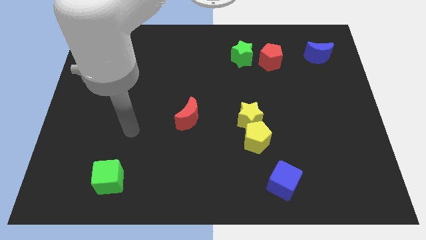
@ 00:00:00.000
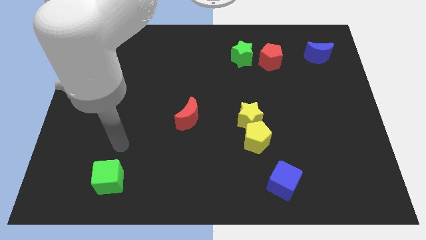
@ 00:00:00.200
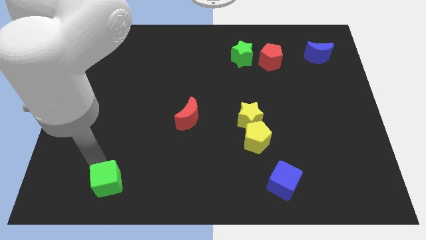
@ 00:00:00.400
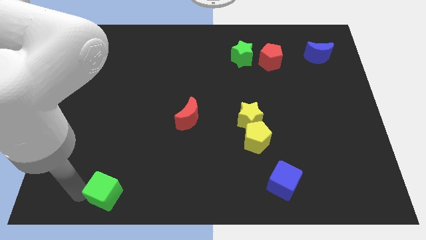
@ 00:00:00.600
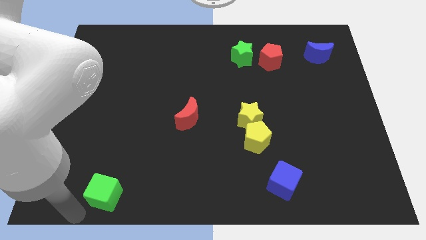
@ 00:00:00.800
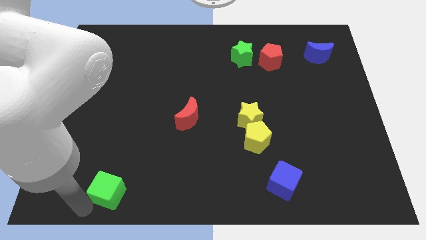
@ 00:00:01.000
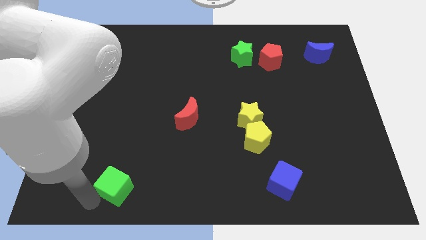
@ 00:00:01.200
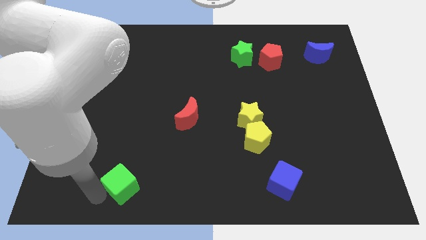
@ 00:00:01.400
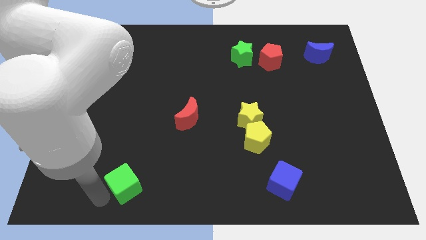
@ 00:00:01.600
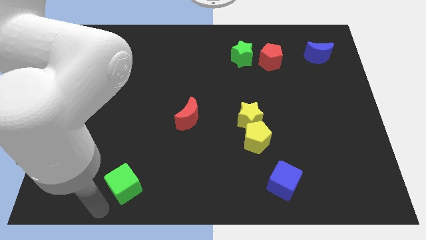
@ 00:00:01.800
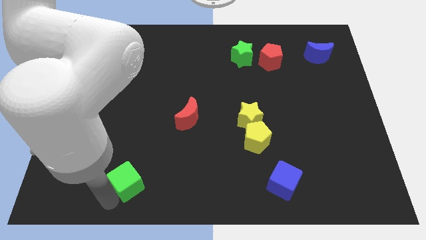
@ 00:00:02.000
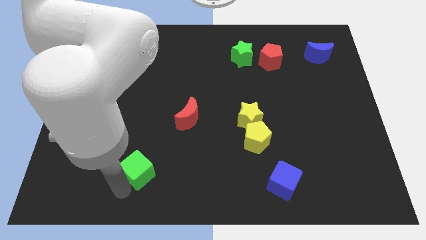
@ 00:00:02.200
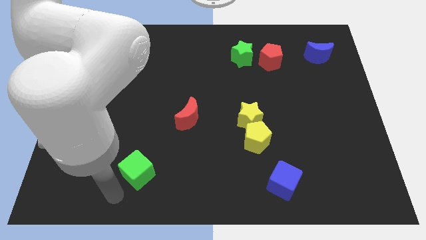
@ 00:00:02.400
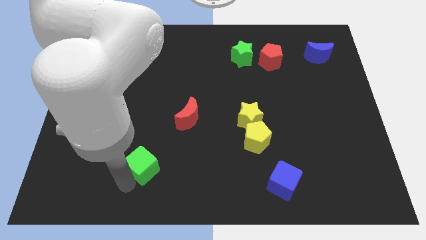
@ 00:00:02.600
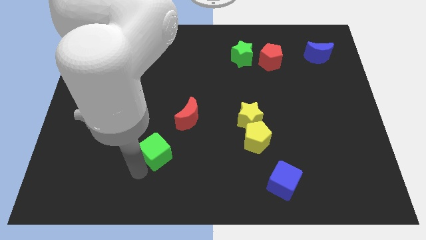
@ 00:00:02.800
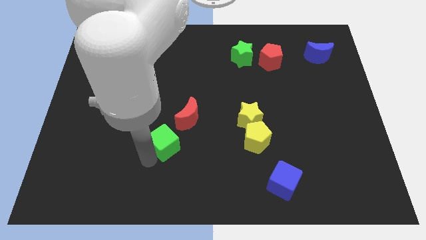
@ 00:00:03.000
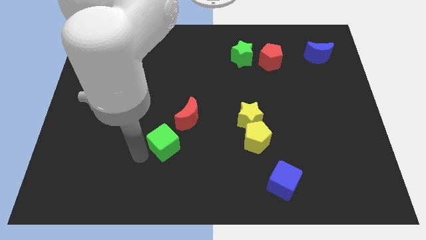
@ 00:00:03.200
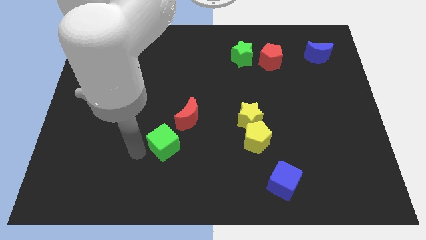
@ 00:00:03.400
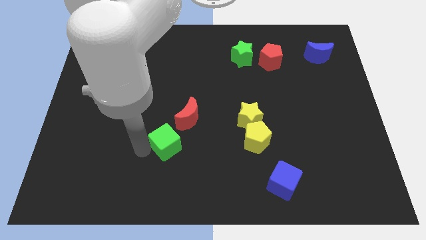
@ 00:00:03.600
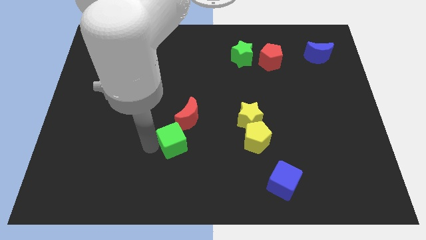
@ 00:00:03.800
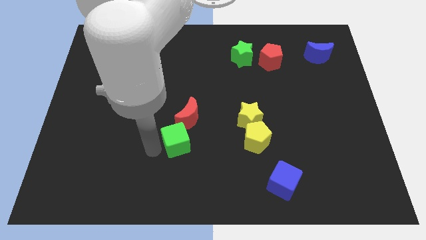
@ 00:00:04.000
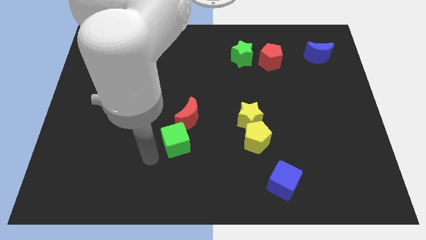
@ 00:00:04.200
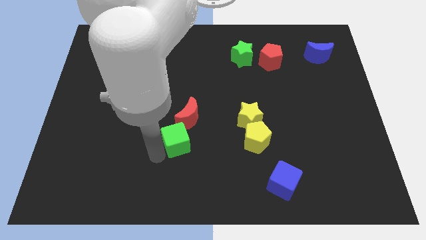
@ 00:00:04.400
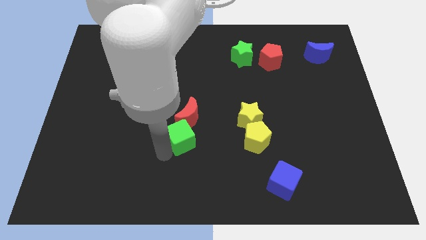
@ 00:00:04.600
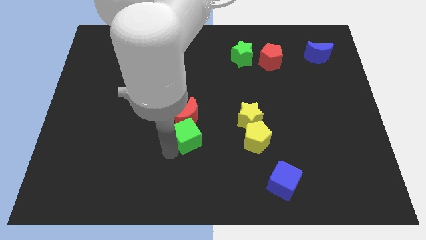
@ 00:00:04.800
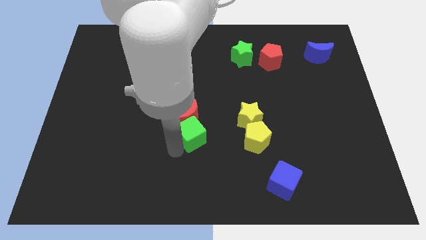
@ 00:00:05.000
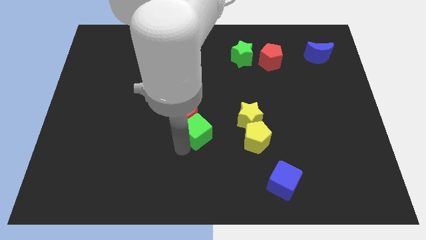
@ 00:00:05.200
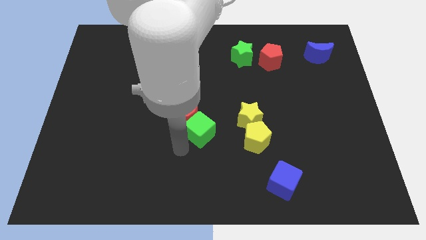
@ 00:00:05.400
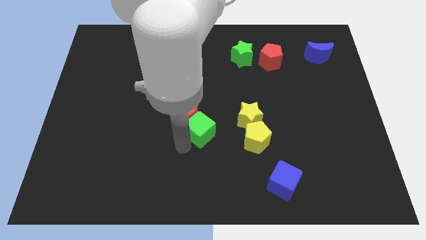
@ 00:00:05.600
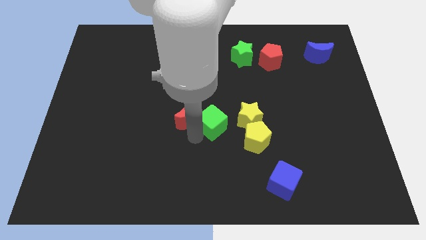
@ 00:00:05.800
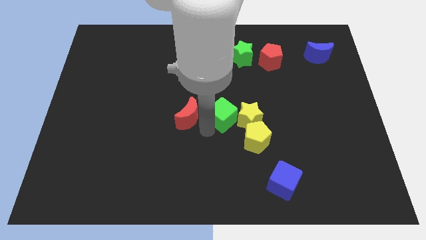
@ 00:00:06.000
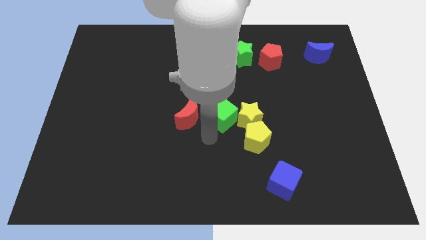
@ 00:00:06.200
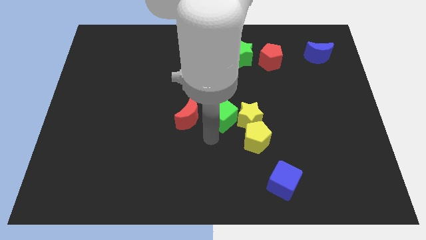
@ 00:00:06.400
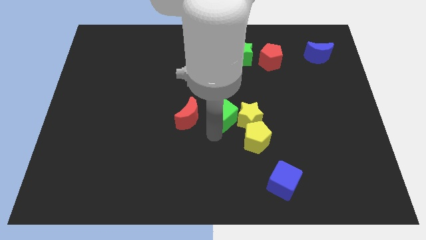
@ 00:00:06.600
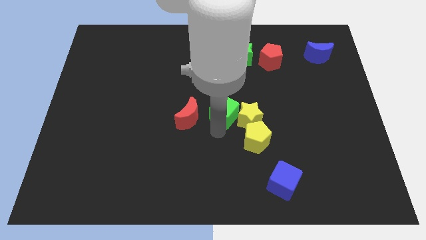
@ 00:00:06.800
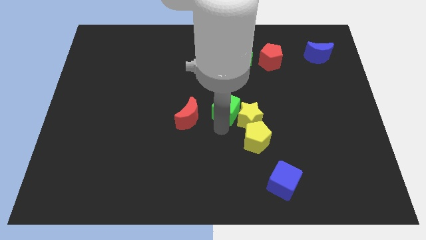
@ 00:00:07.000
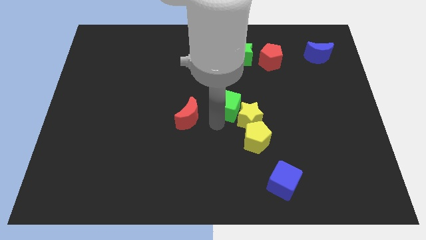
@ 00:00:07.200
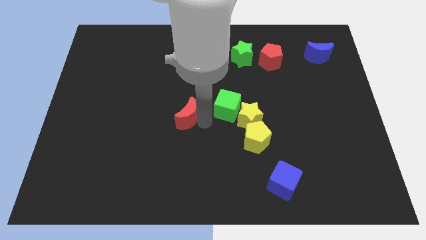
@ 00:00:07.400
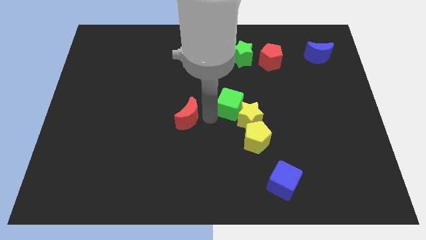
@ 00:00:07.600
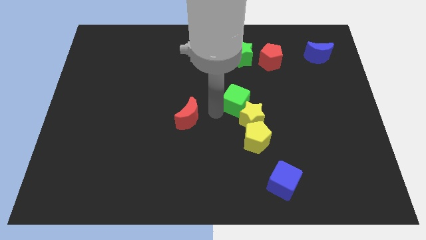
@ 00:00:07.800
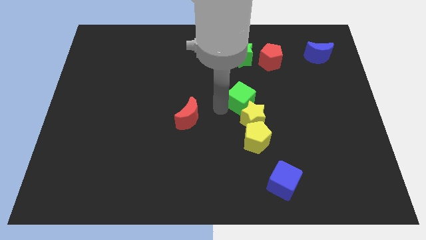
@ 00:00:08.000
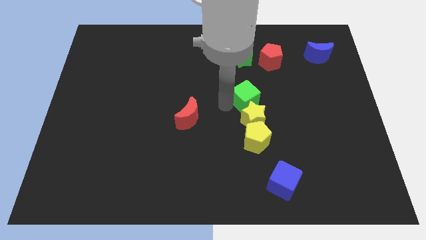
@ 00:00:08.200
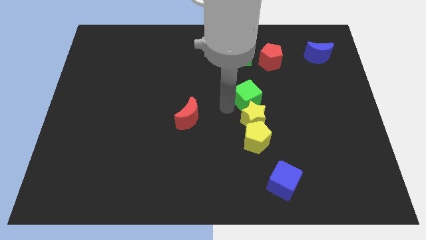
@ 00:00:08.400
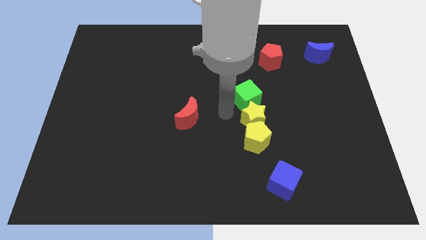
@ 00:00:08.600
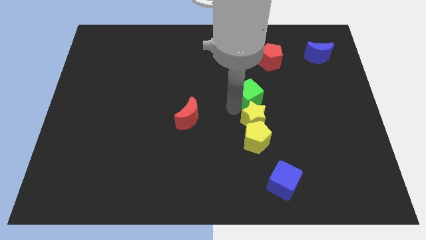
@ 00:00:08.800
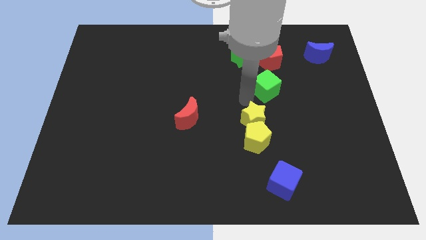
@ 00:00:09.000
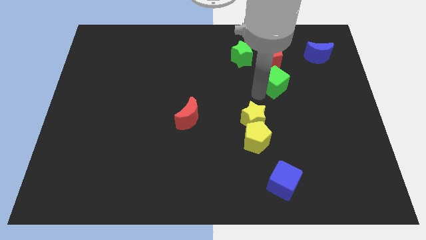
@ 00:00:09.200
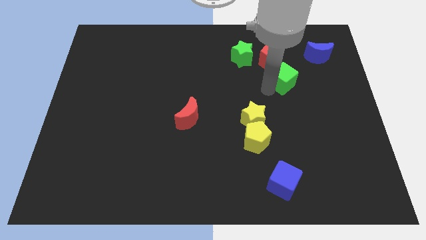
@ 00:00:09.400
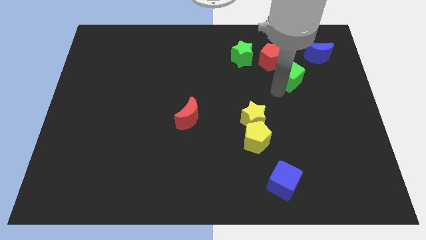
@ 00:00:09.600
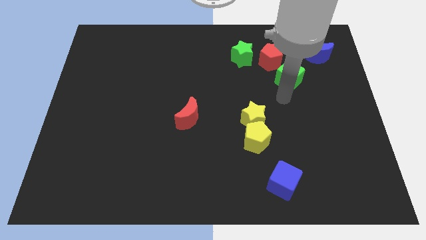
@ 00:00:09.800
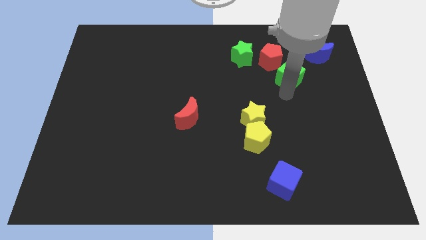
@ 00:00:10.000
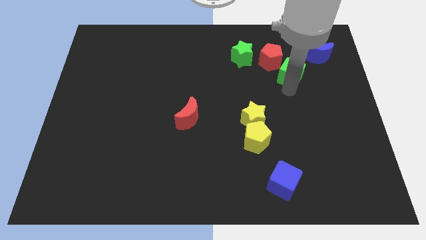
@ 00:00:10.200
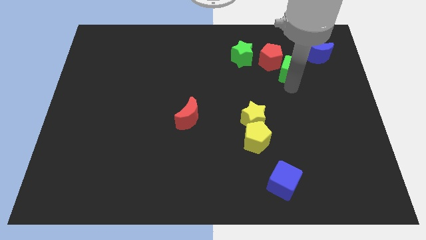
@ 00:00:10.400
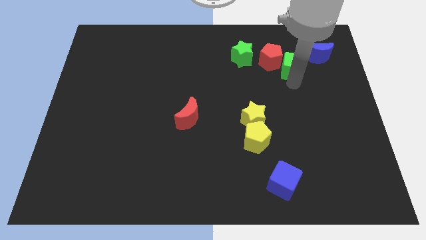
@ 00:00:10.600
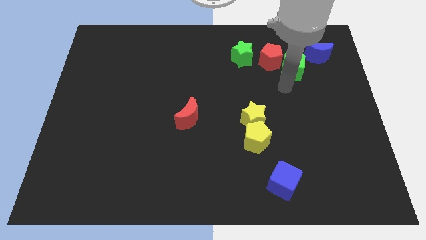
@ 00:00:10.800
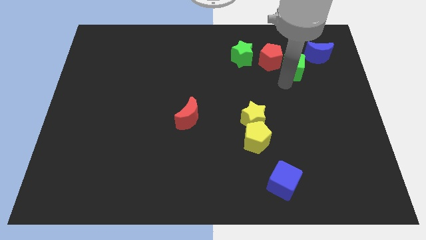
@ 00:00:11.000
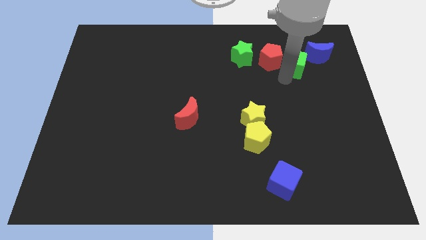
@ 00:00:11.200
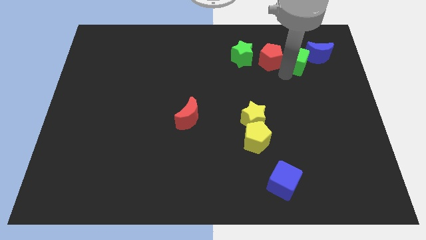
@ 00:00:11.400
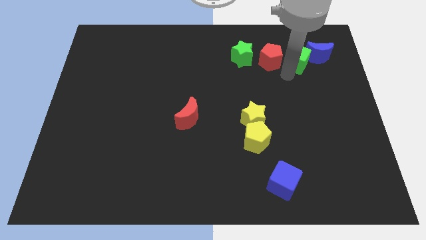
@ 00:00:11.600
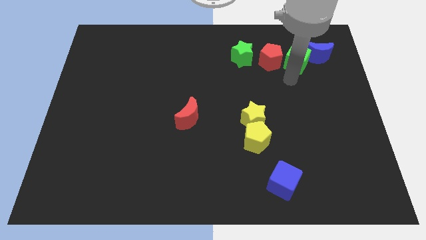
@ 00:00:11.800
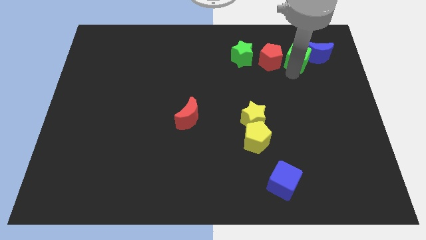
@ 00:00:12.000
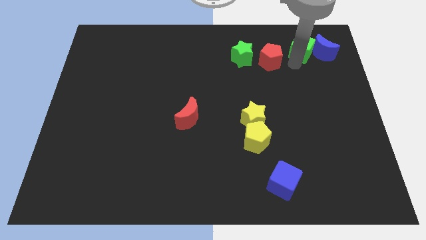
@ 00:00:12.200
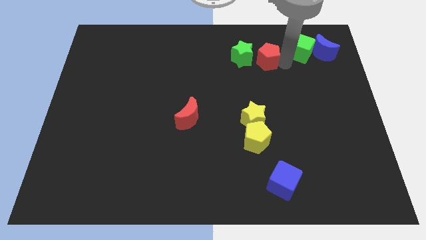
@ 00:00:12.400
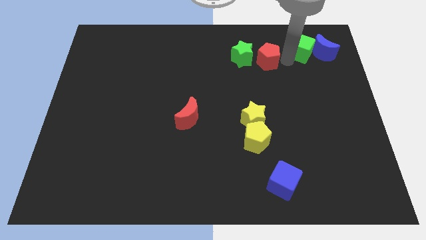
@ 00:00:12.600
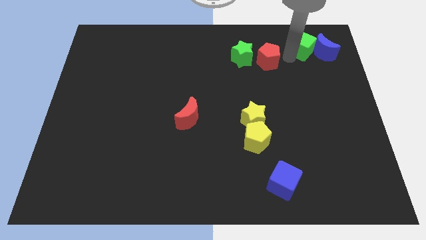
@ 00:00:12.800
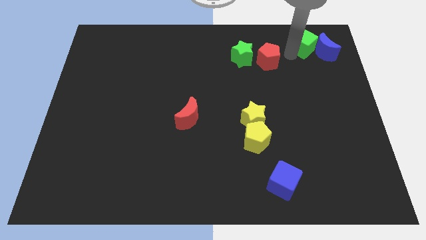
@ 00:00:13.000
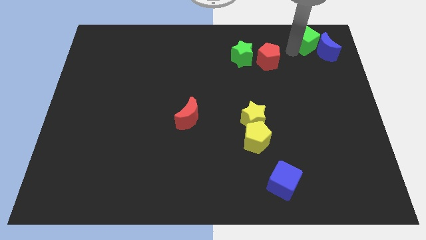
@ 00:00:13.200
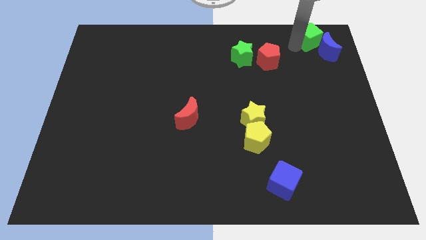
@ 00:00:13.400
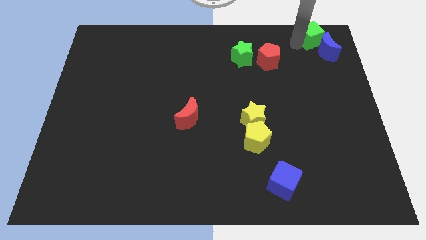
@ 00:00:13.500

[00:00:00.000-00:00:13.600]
push the green cube to the top right corner

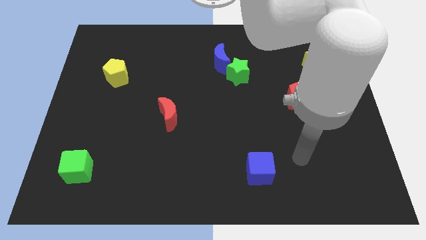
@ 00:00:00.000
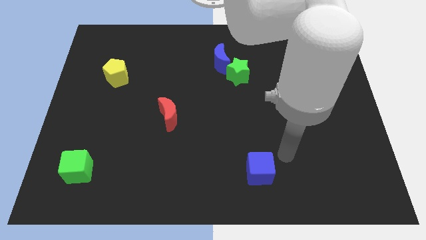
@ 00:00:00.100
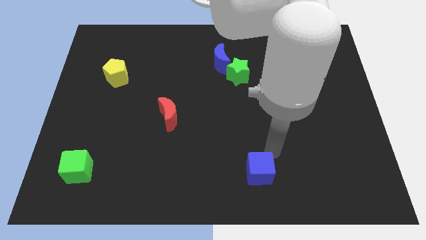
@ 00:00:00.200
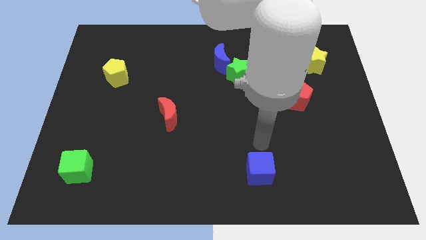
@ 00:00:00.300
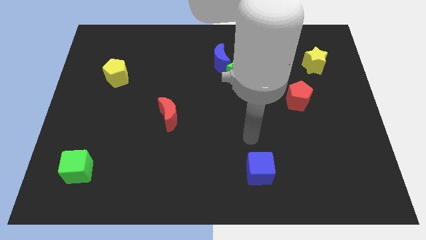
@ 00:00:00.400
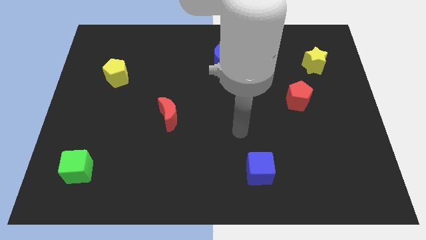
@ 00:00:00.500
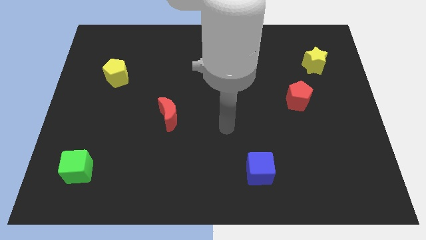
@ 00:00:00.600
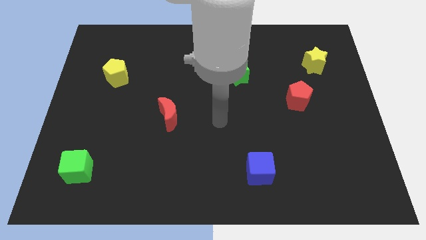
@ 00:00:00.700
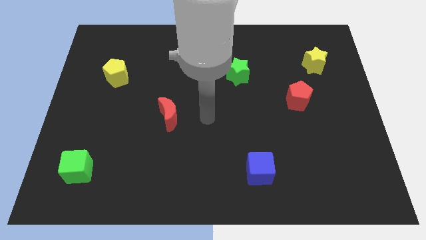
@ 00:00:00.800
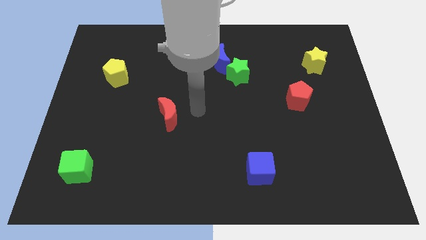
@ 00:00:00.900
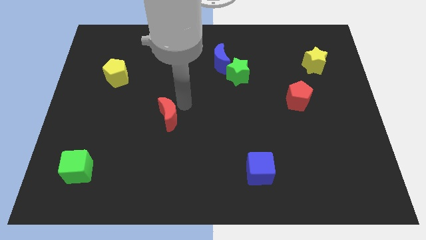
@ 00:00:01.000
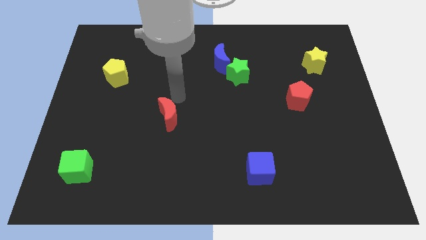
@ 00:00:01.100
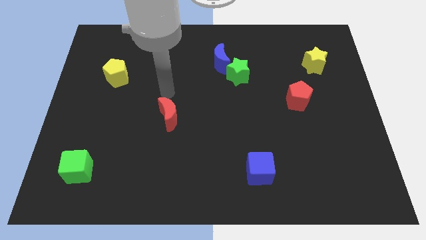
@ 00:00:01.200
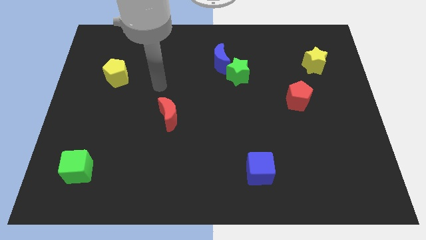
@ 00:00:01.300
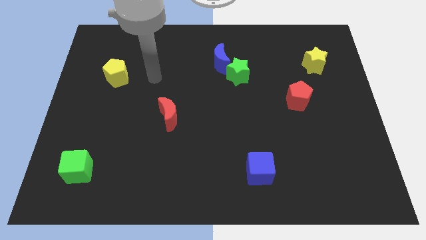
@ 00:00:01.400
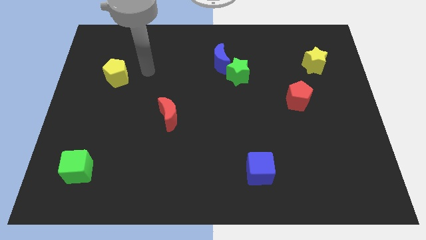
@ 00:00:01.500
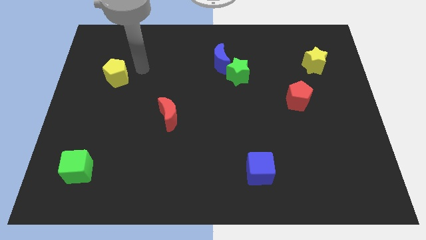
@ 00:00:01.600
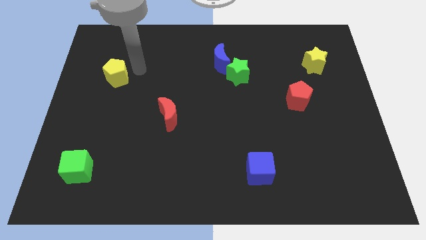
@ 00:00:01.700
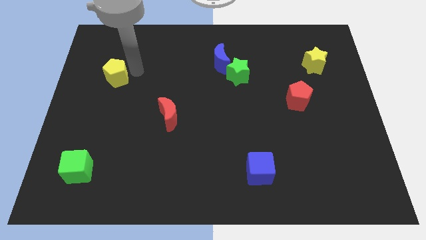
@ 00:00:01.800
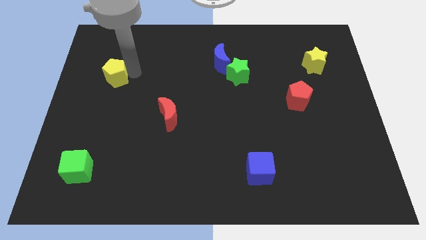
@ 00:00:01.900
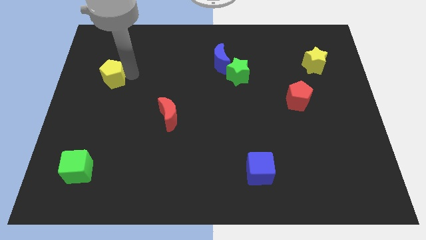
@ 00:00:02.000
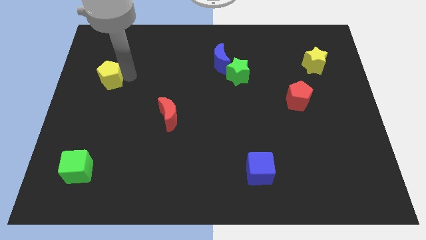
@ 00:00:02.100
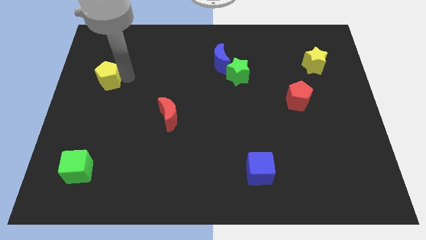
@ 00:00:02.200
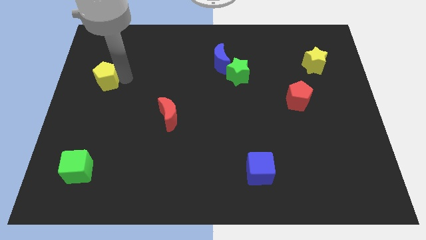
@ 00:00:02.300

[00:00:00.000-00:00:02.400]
move the yellow pentagon to the center left
